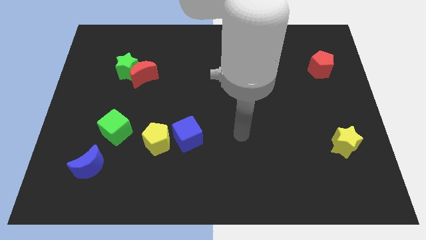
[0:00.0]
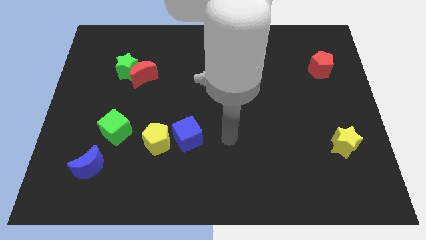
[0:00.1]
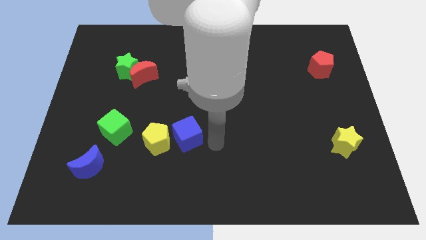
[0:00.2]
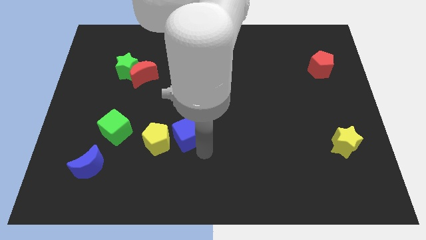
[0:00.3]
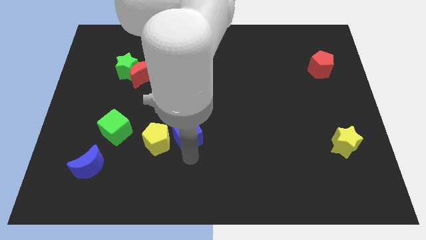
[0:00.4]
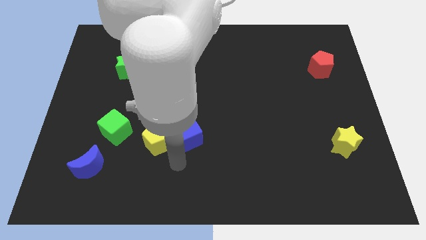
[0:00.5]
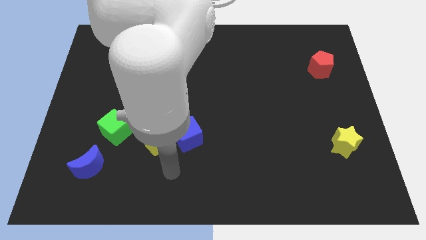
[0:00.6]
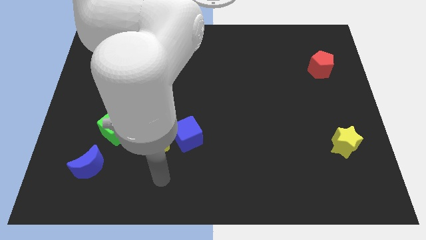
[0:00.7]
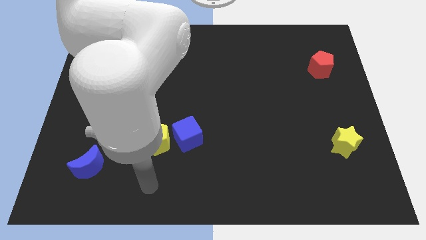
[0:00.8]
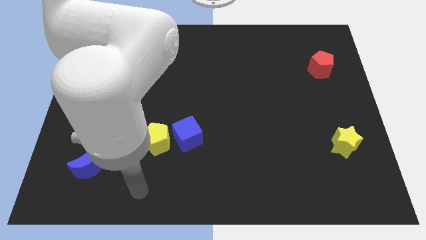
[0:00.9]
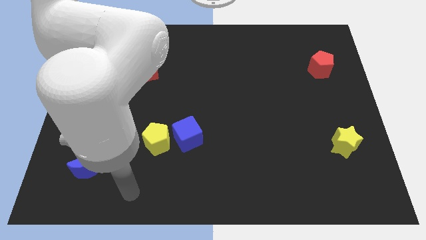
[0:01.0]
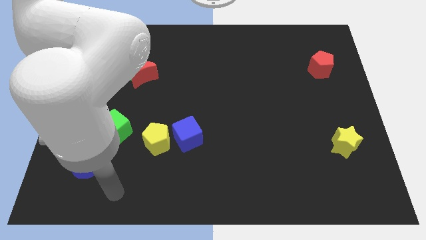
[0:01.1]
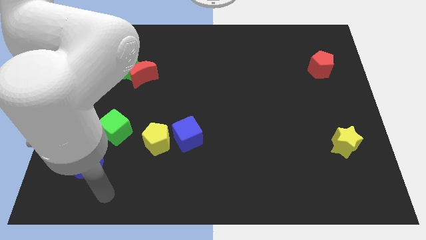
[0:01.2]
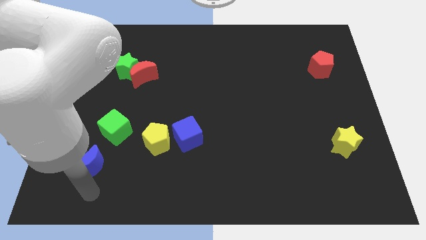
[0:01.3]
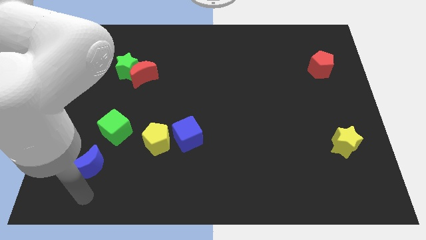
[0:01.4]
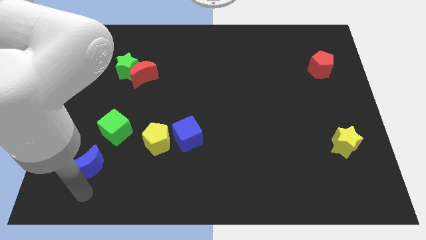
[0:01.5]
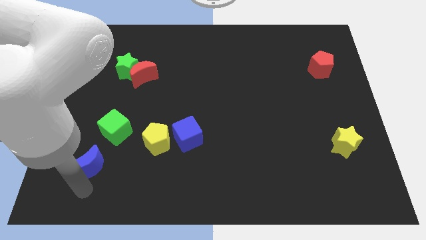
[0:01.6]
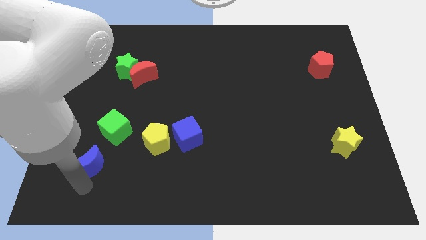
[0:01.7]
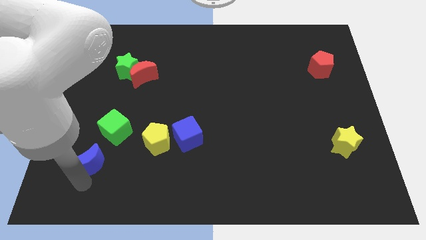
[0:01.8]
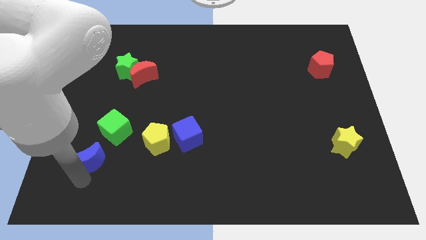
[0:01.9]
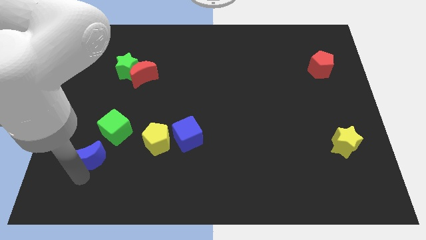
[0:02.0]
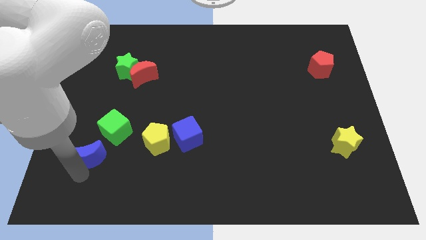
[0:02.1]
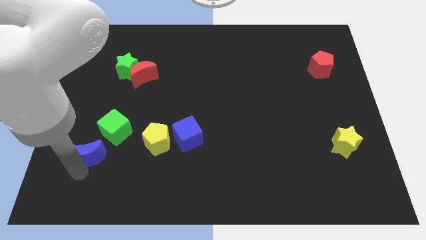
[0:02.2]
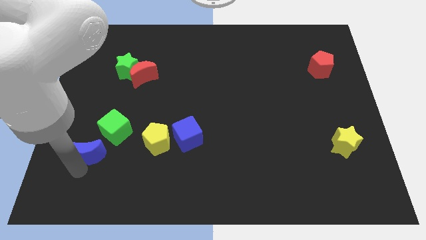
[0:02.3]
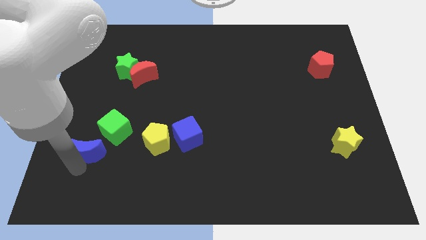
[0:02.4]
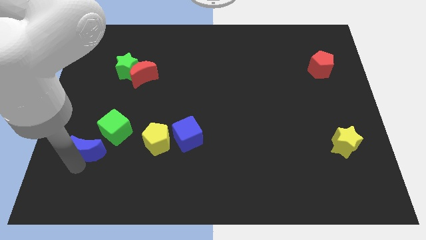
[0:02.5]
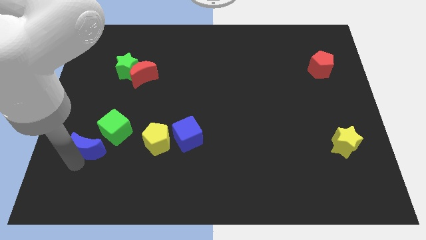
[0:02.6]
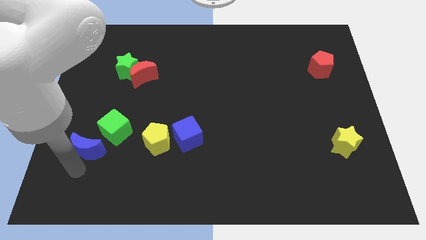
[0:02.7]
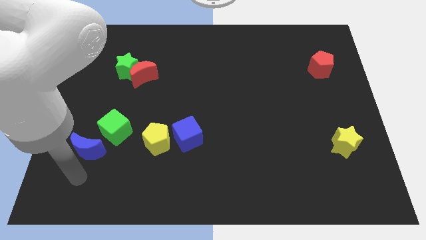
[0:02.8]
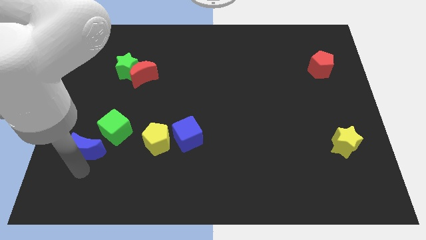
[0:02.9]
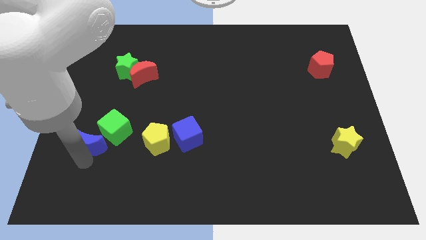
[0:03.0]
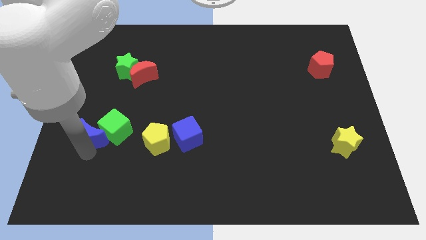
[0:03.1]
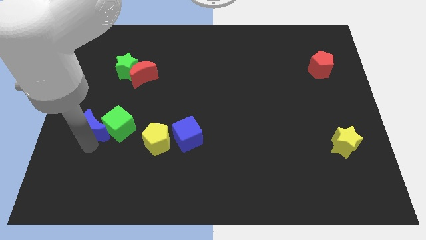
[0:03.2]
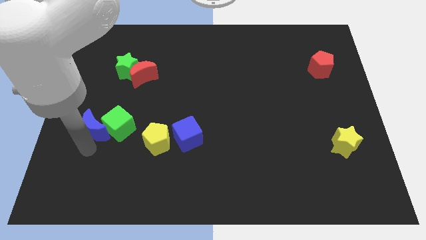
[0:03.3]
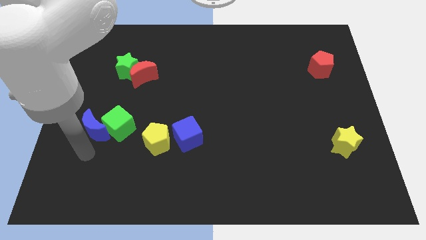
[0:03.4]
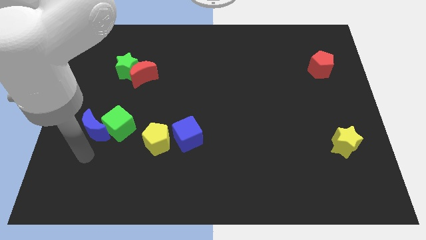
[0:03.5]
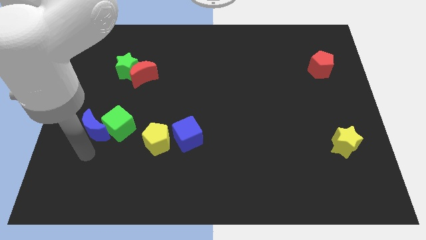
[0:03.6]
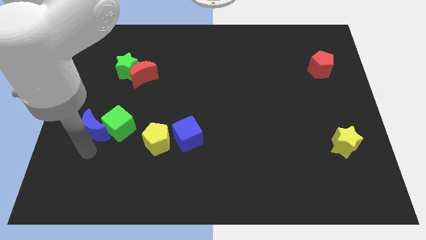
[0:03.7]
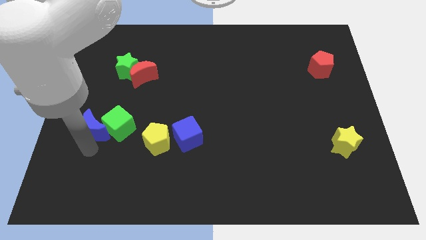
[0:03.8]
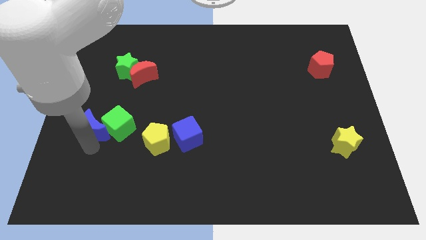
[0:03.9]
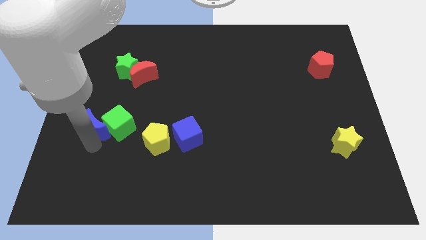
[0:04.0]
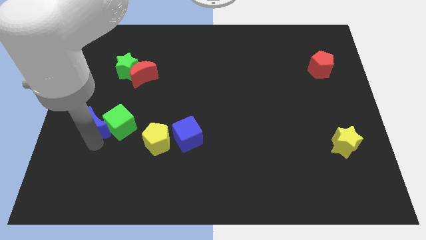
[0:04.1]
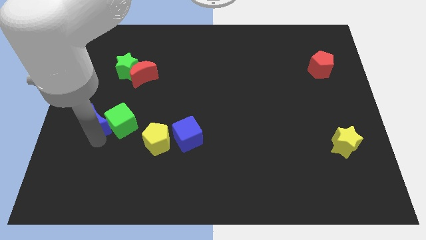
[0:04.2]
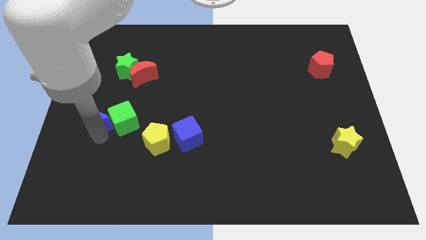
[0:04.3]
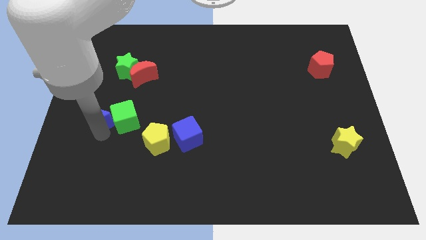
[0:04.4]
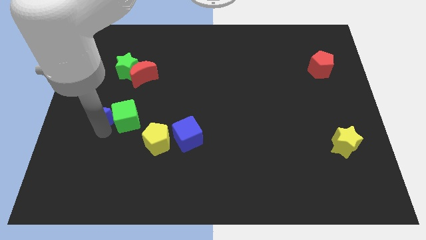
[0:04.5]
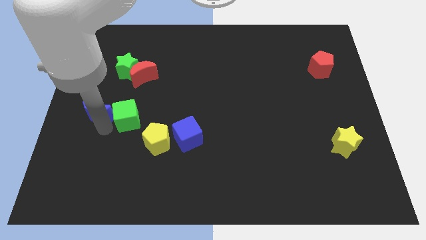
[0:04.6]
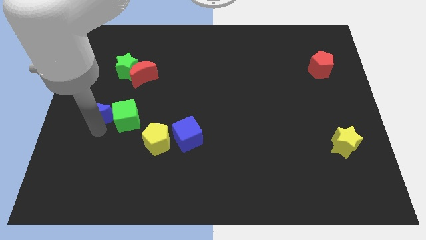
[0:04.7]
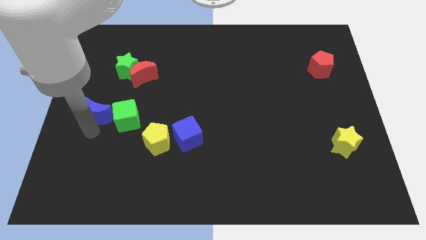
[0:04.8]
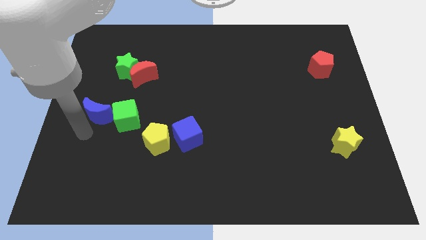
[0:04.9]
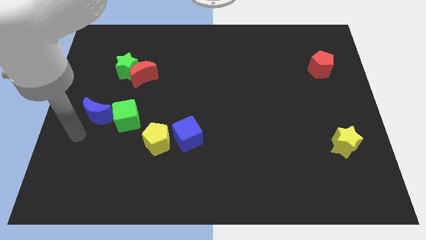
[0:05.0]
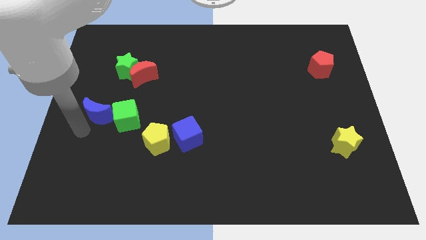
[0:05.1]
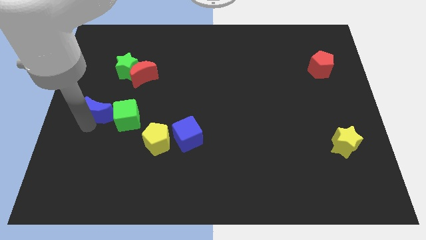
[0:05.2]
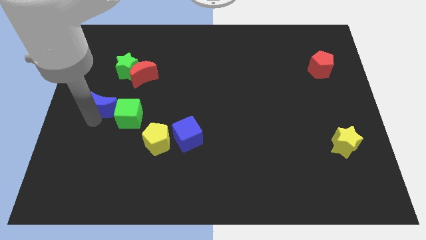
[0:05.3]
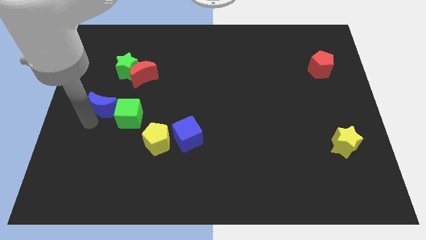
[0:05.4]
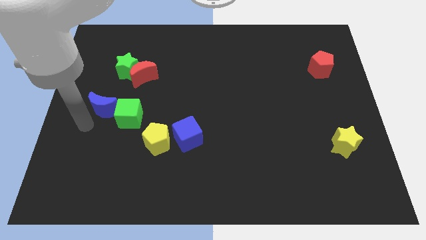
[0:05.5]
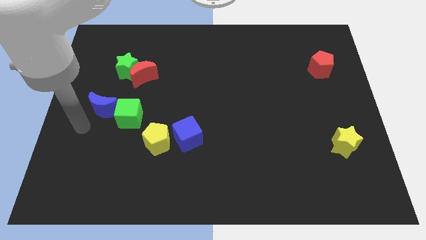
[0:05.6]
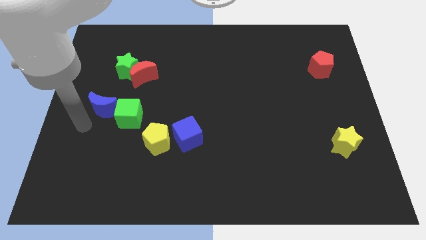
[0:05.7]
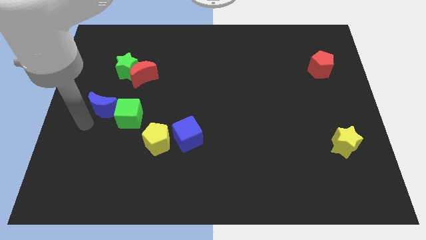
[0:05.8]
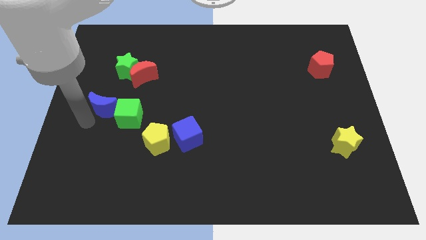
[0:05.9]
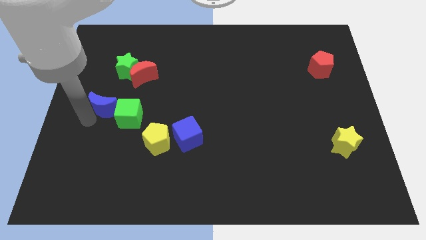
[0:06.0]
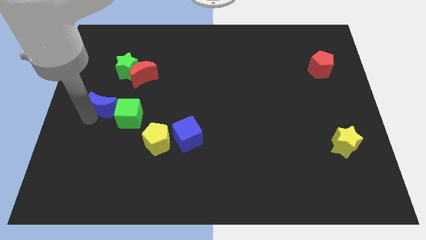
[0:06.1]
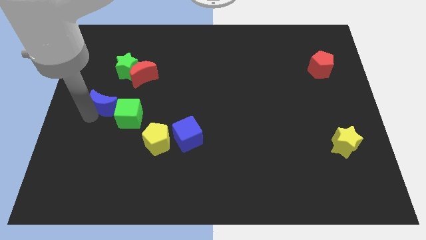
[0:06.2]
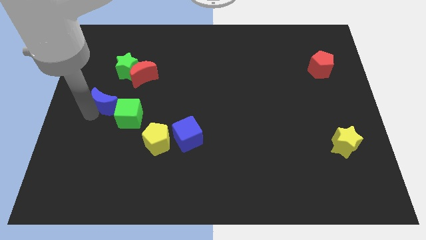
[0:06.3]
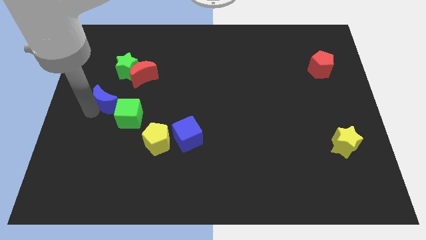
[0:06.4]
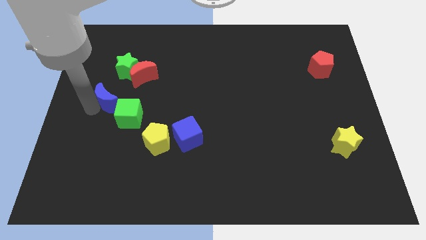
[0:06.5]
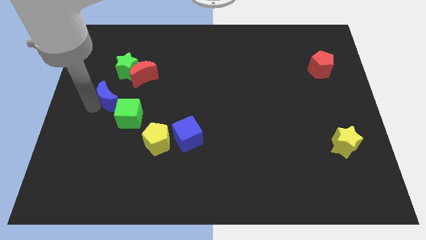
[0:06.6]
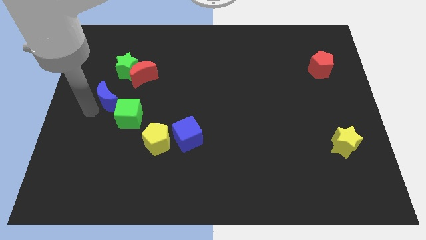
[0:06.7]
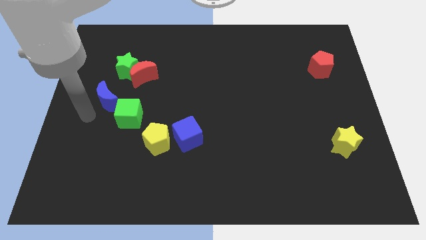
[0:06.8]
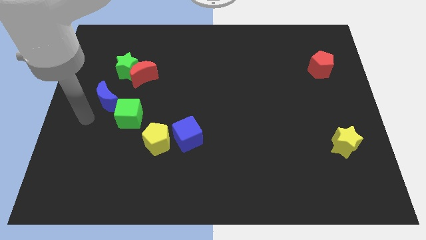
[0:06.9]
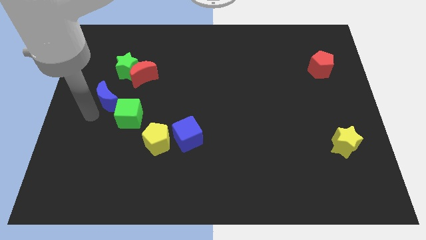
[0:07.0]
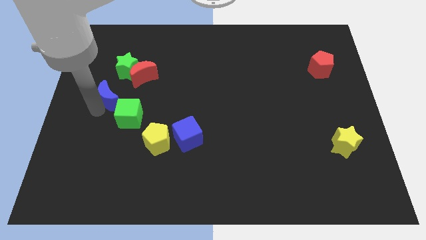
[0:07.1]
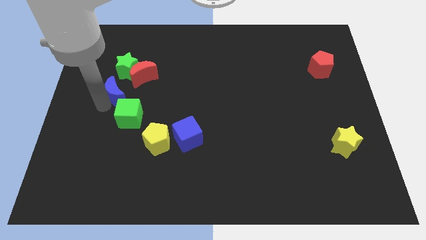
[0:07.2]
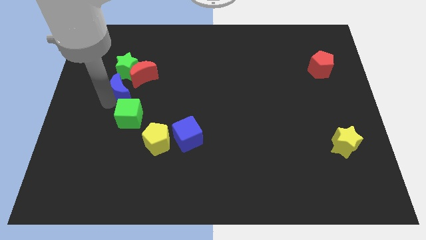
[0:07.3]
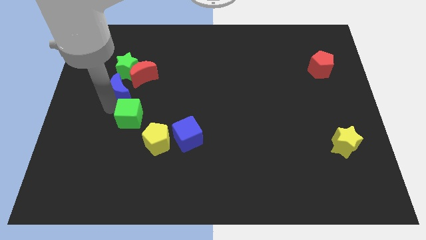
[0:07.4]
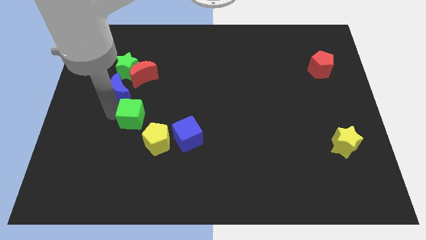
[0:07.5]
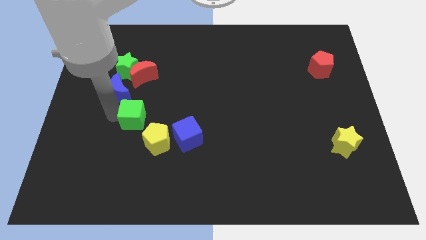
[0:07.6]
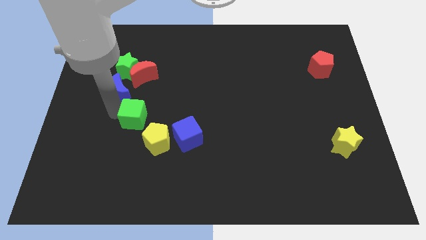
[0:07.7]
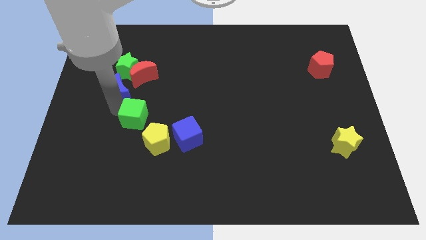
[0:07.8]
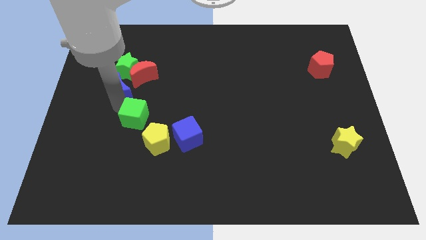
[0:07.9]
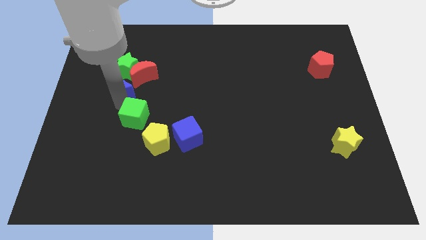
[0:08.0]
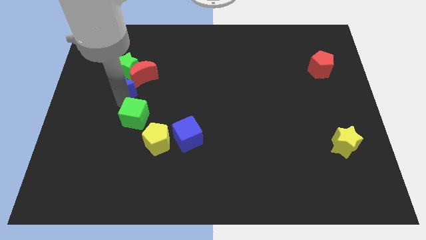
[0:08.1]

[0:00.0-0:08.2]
move the blue moon to the green star
